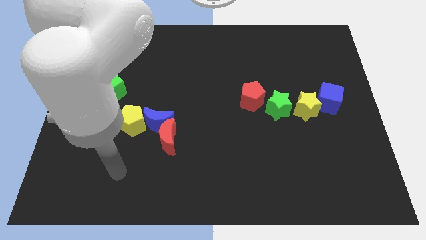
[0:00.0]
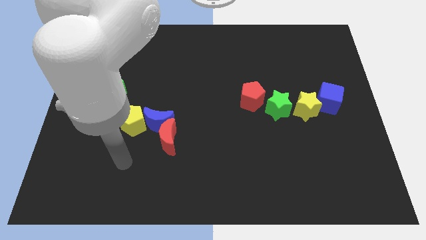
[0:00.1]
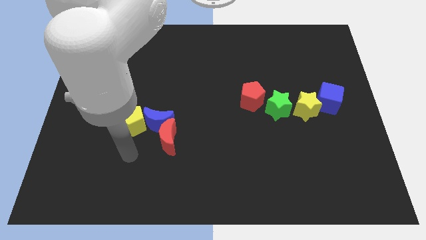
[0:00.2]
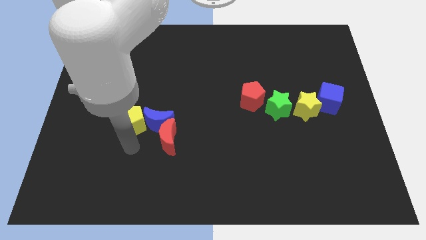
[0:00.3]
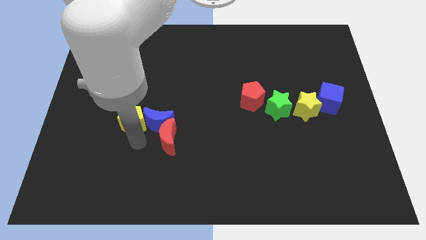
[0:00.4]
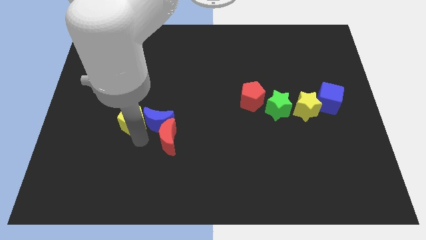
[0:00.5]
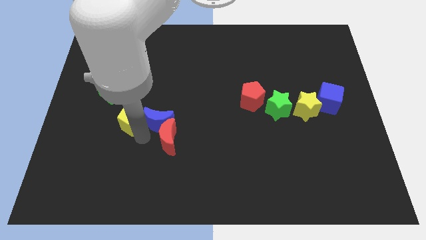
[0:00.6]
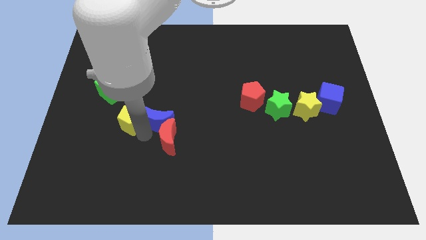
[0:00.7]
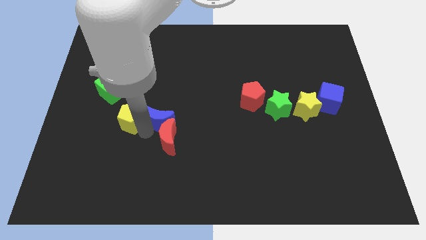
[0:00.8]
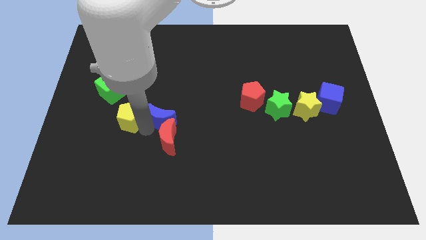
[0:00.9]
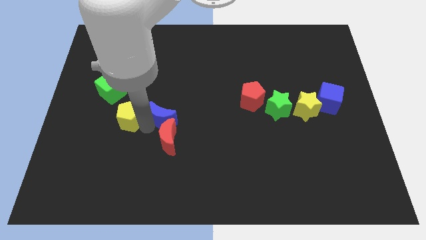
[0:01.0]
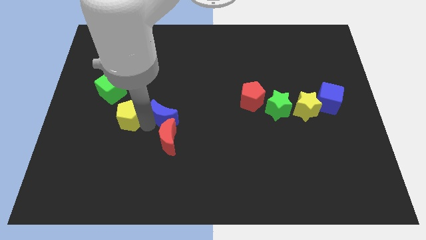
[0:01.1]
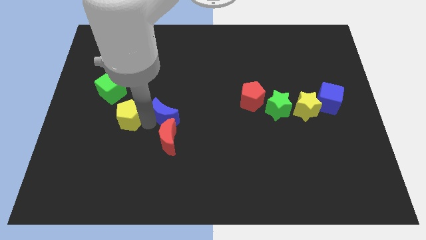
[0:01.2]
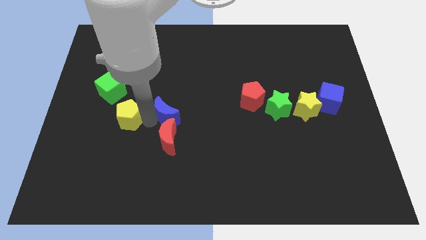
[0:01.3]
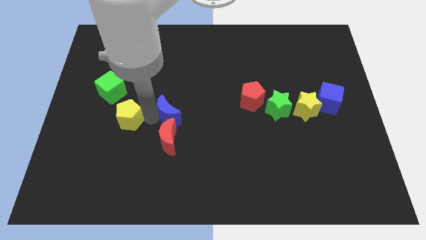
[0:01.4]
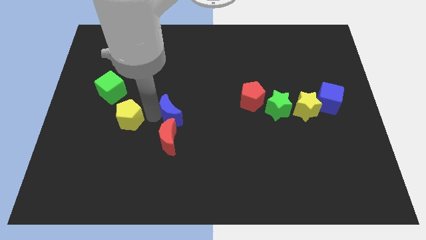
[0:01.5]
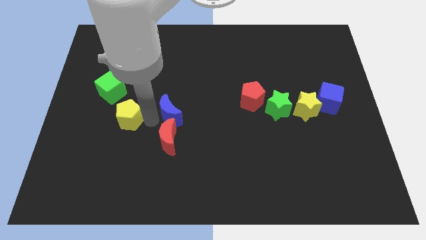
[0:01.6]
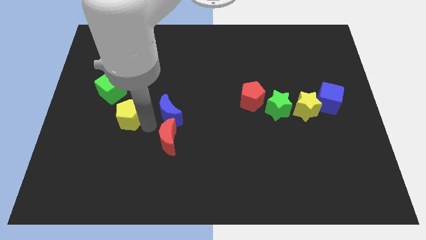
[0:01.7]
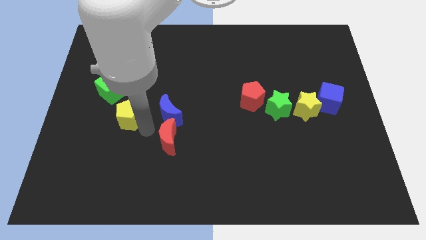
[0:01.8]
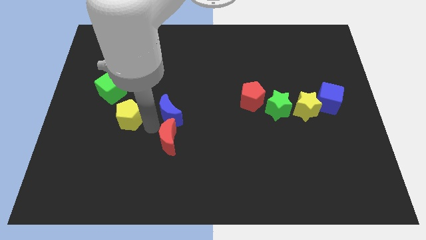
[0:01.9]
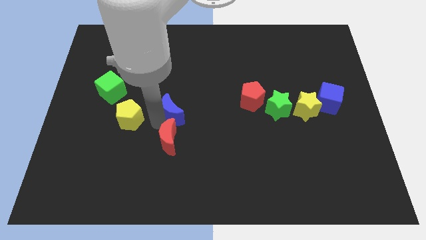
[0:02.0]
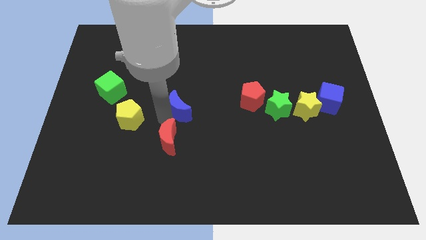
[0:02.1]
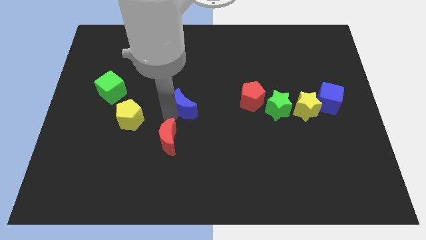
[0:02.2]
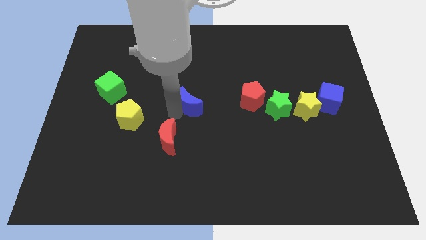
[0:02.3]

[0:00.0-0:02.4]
separate the blue moon from the red moon and yellow pentagon

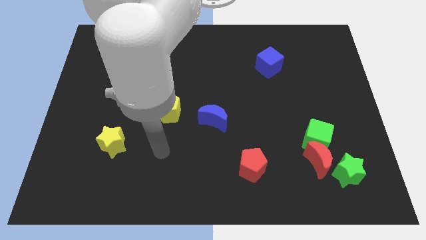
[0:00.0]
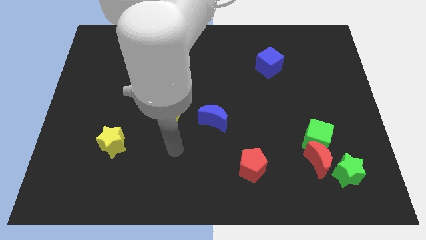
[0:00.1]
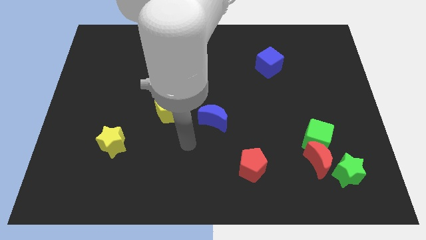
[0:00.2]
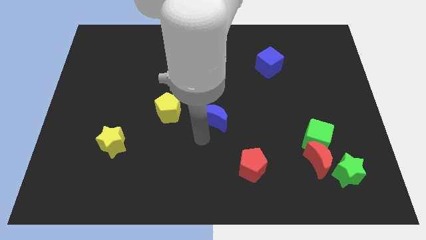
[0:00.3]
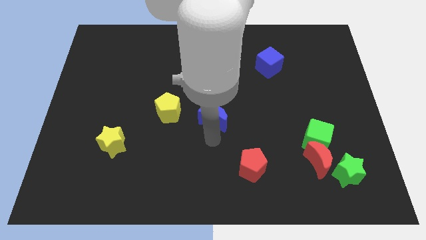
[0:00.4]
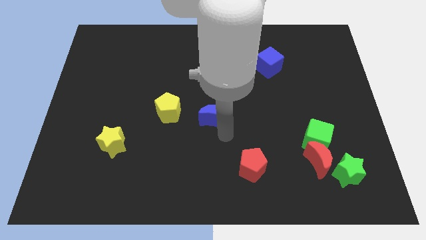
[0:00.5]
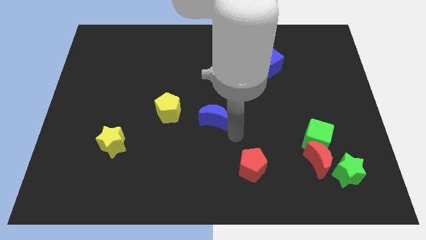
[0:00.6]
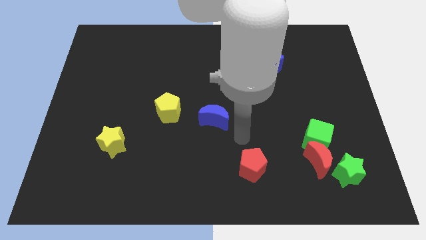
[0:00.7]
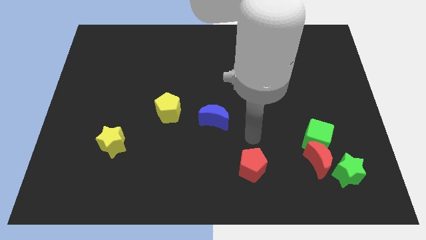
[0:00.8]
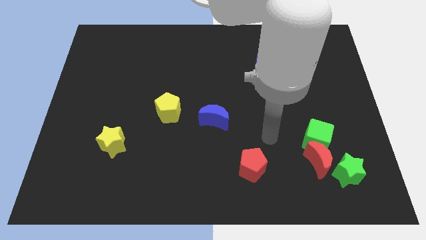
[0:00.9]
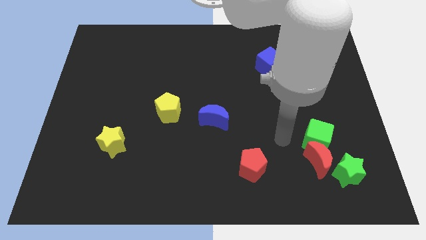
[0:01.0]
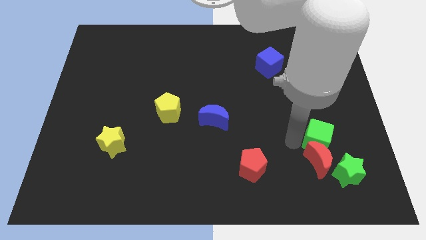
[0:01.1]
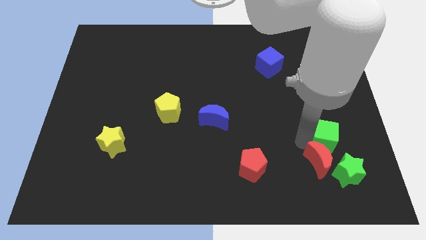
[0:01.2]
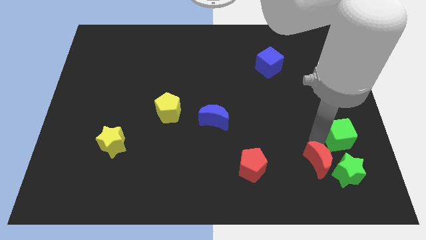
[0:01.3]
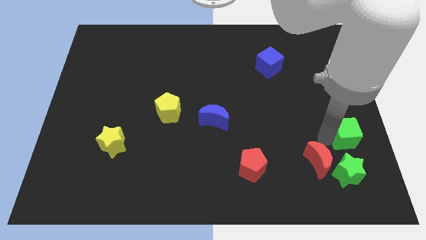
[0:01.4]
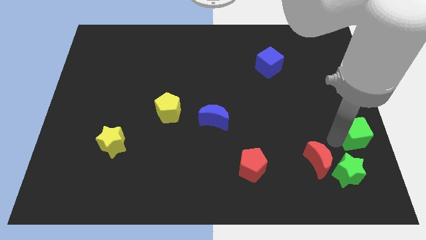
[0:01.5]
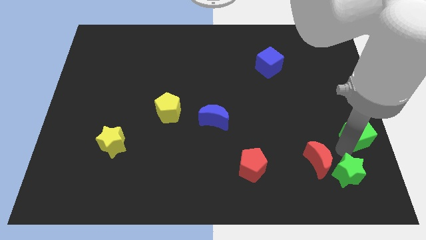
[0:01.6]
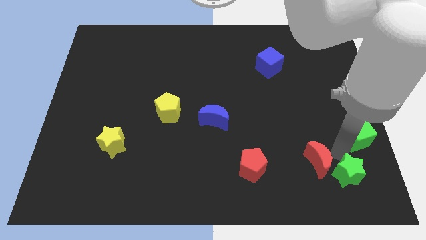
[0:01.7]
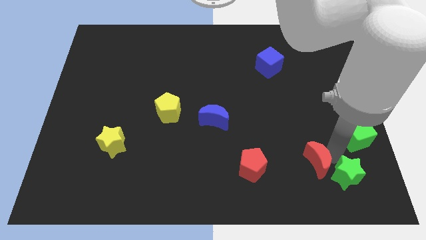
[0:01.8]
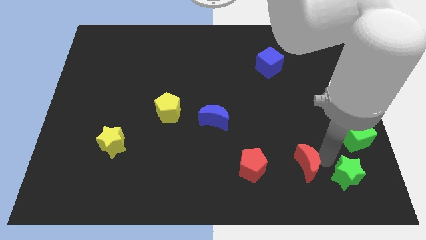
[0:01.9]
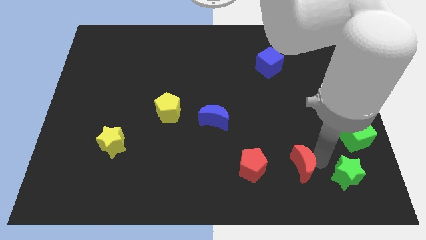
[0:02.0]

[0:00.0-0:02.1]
move the red moon away from the green cube and green star

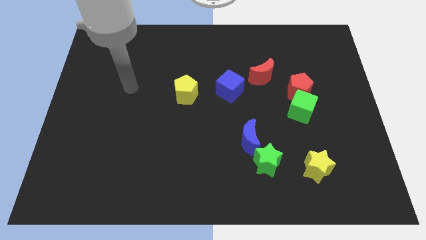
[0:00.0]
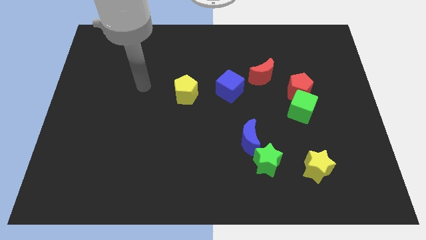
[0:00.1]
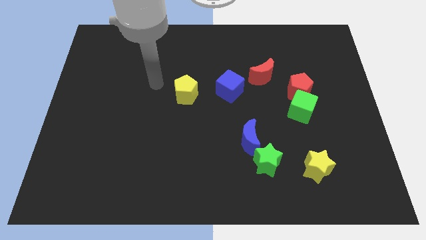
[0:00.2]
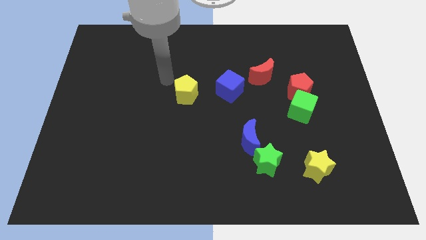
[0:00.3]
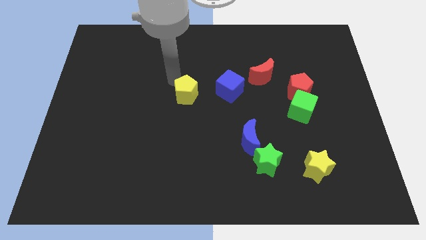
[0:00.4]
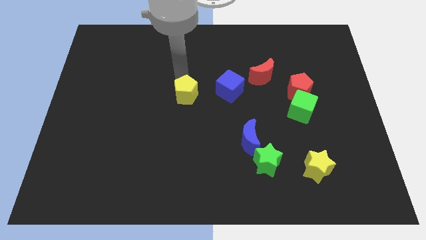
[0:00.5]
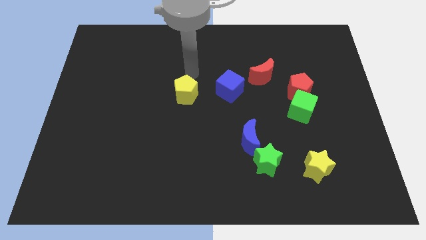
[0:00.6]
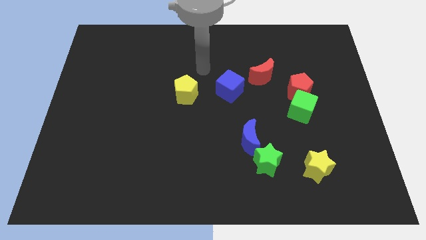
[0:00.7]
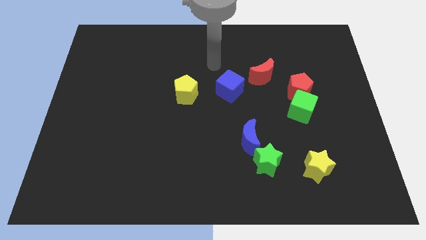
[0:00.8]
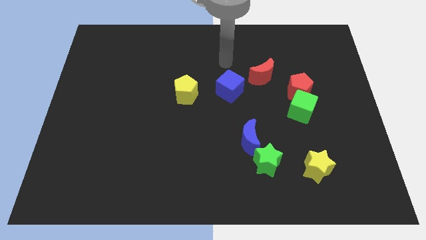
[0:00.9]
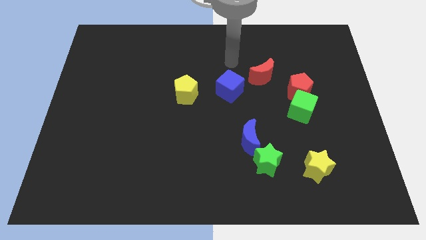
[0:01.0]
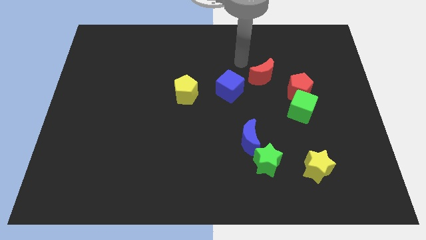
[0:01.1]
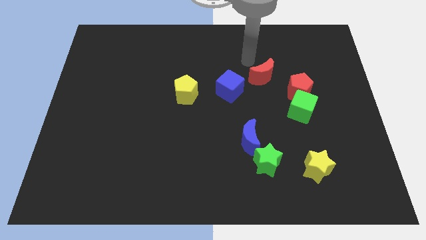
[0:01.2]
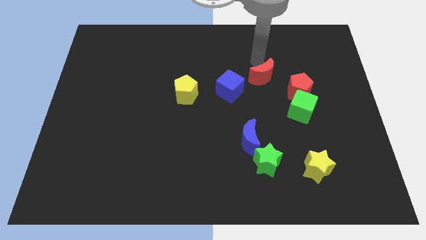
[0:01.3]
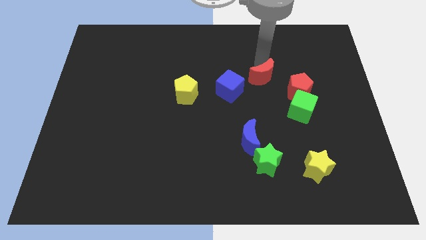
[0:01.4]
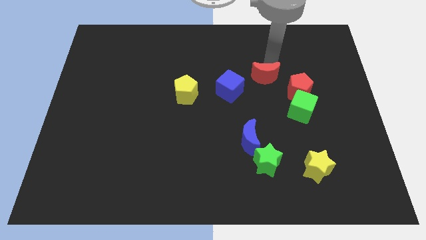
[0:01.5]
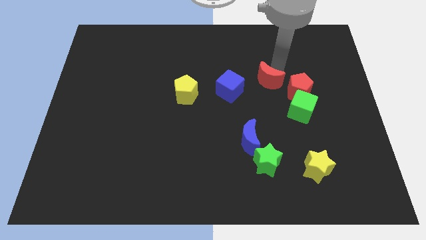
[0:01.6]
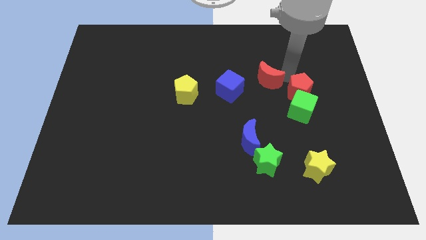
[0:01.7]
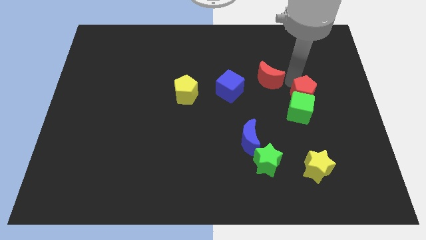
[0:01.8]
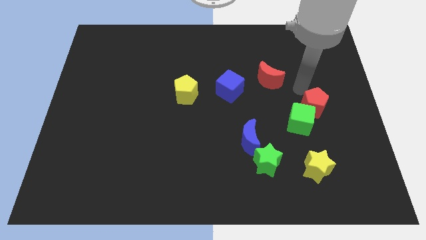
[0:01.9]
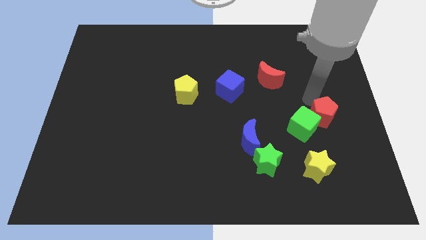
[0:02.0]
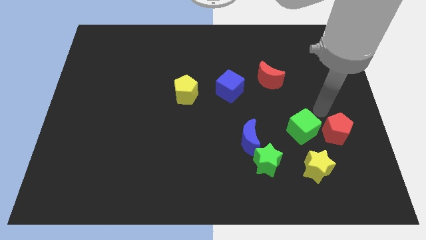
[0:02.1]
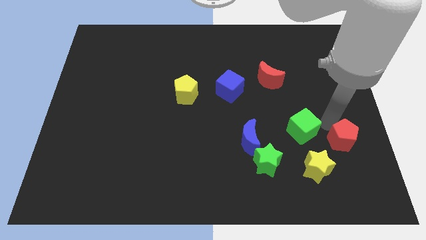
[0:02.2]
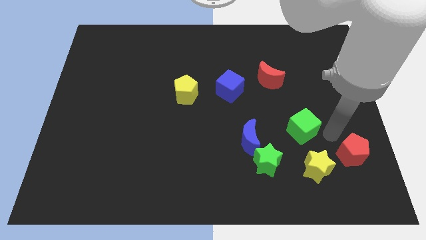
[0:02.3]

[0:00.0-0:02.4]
move the green cube away from the red pentagon

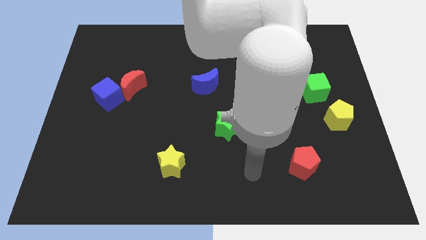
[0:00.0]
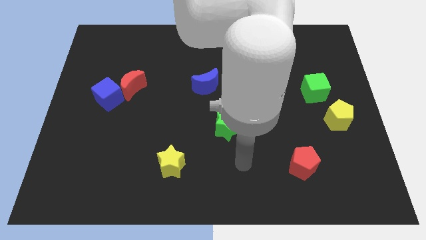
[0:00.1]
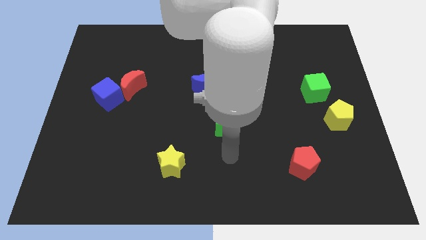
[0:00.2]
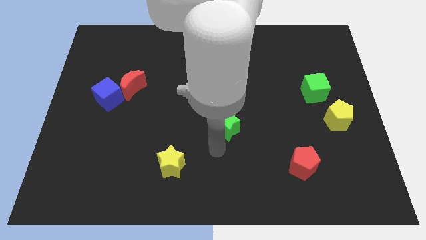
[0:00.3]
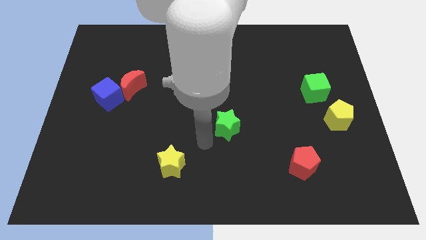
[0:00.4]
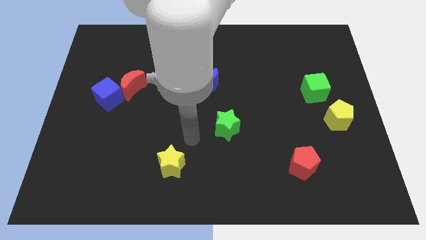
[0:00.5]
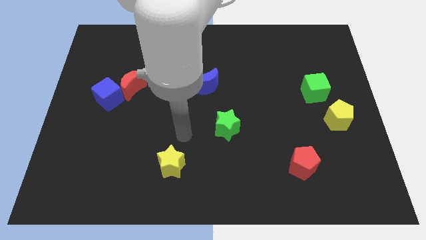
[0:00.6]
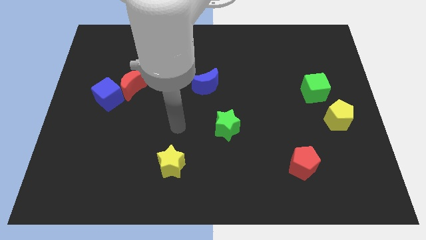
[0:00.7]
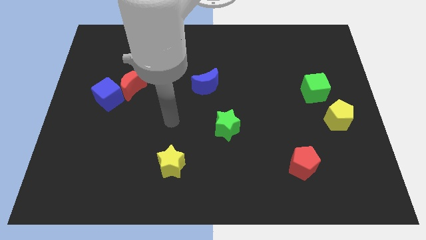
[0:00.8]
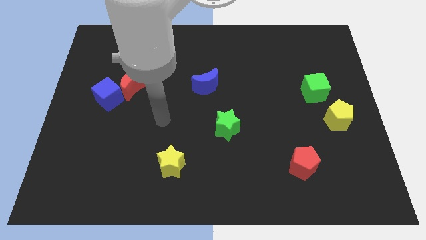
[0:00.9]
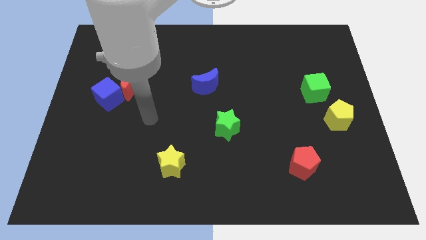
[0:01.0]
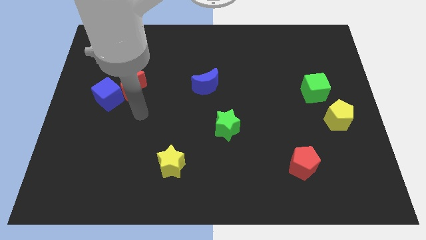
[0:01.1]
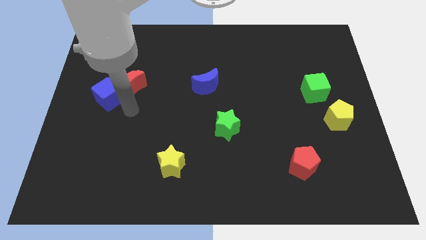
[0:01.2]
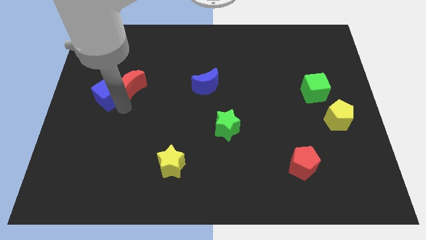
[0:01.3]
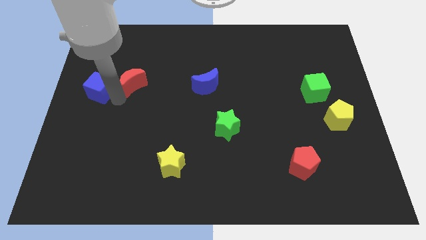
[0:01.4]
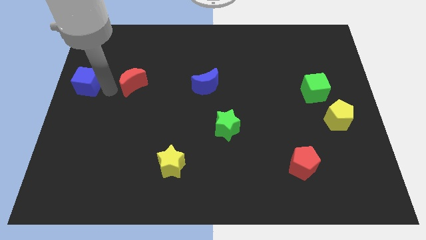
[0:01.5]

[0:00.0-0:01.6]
move the red moon away from the blue cube

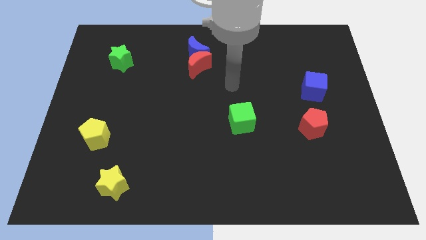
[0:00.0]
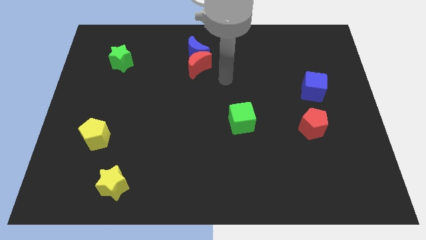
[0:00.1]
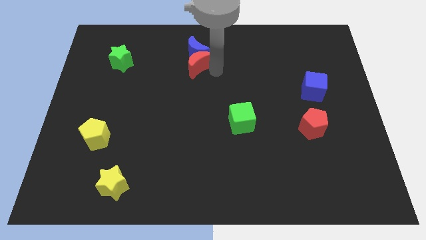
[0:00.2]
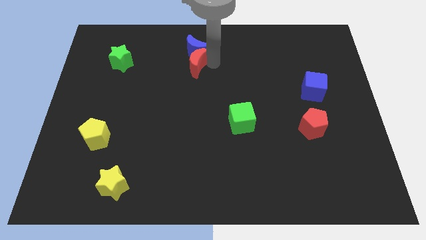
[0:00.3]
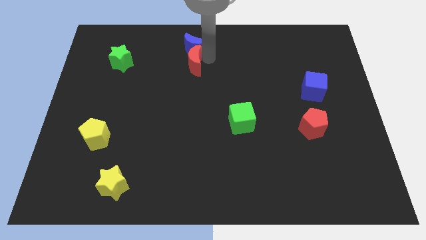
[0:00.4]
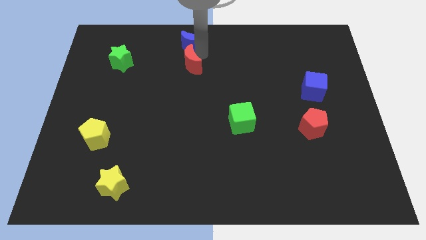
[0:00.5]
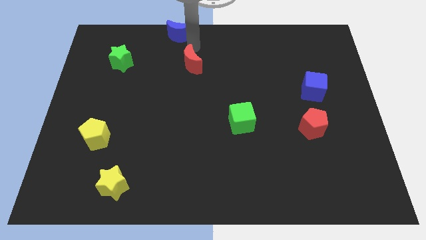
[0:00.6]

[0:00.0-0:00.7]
pull the red moon apart from the blue moon

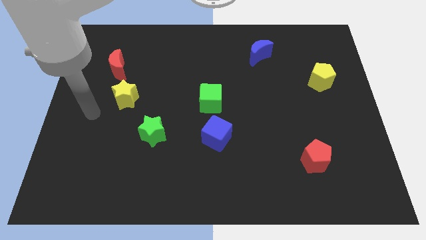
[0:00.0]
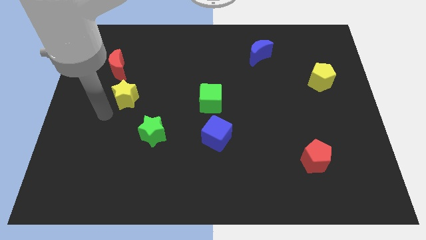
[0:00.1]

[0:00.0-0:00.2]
pull the blue cube apart from the green cube
